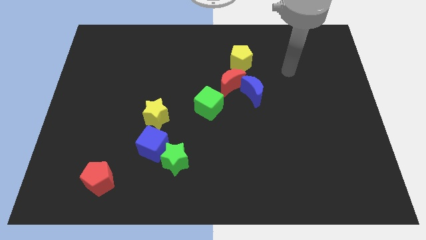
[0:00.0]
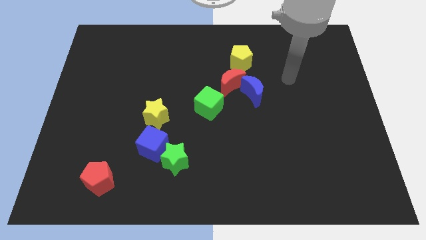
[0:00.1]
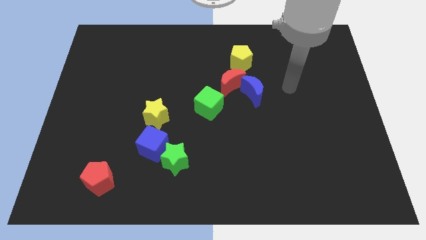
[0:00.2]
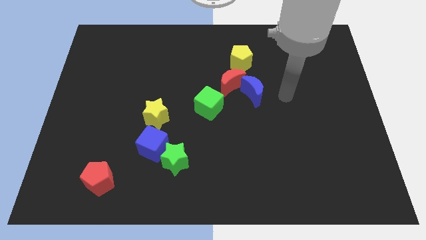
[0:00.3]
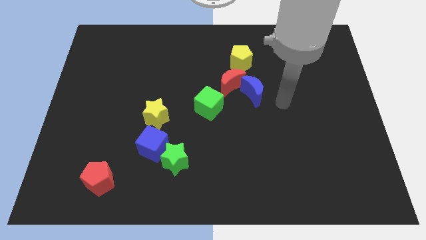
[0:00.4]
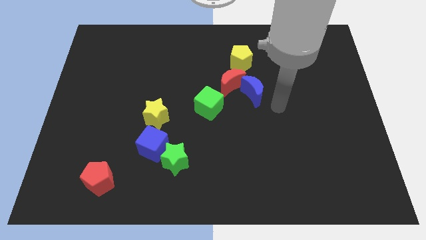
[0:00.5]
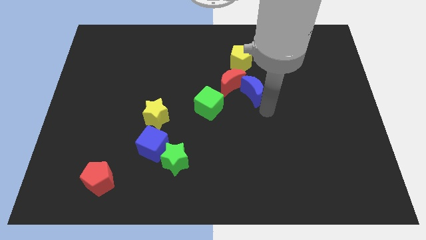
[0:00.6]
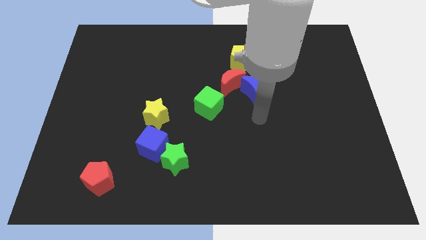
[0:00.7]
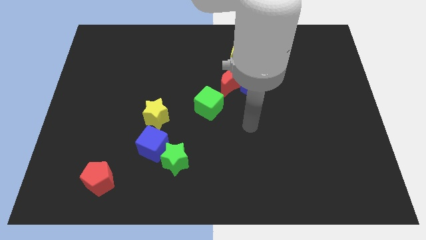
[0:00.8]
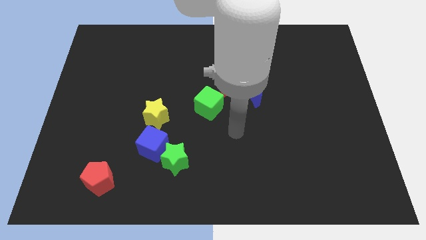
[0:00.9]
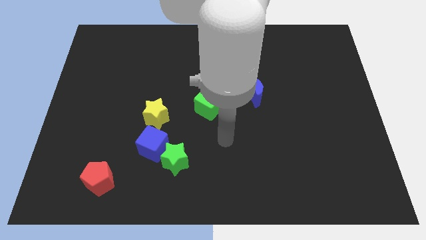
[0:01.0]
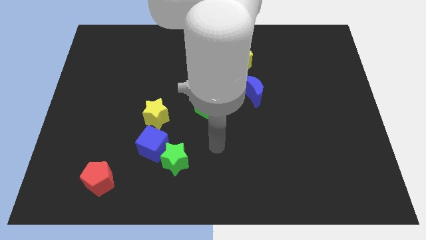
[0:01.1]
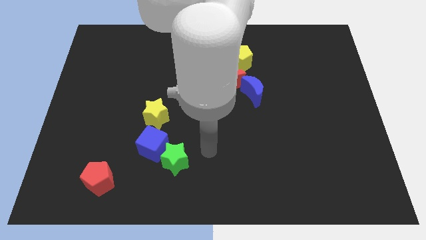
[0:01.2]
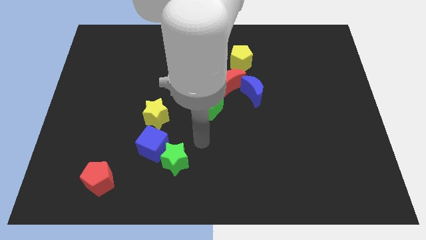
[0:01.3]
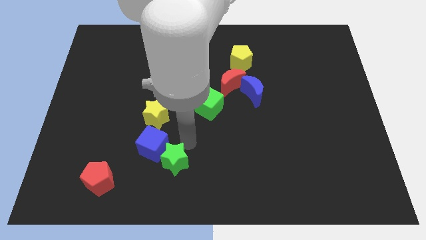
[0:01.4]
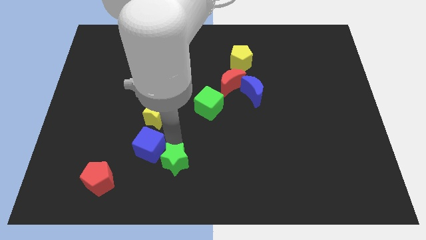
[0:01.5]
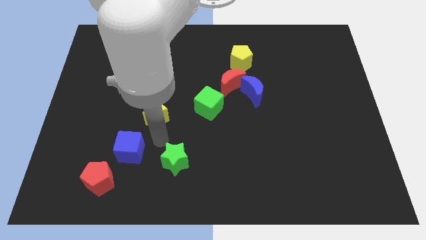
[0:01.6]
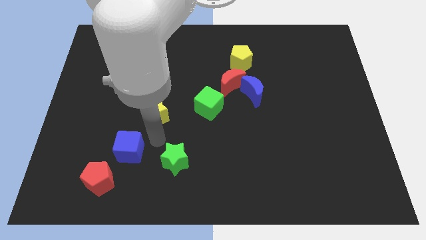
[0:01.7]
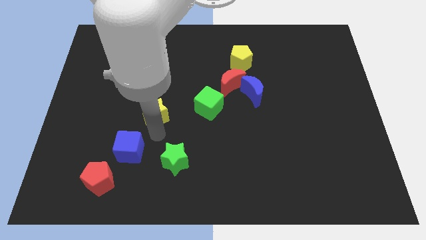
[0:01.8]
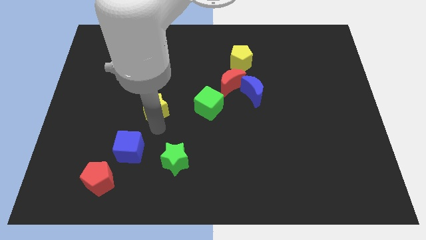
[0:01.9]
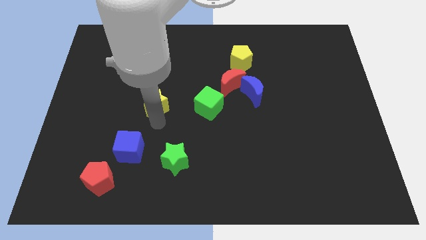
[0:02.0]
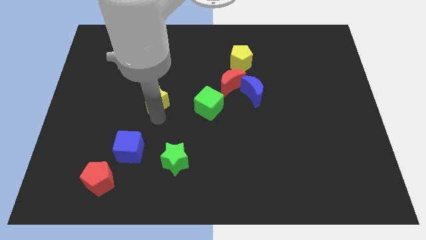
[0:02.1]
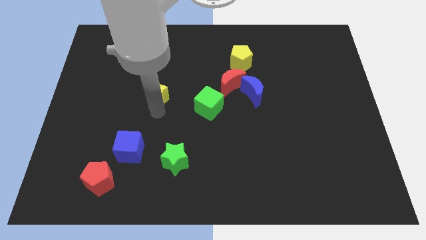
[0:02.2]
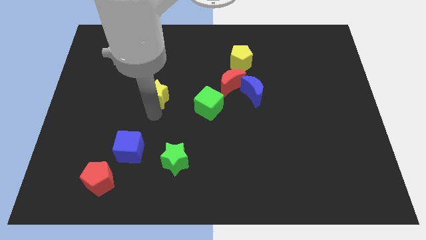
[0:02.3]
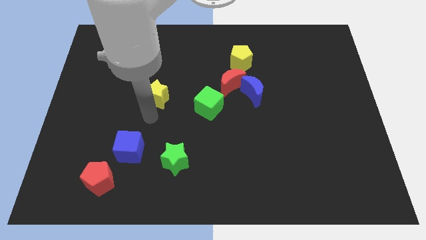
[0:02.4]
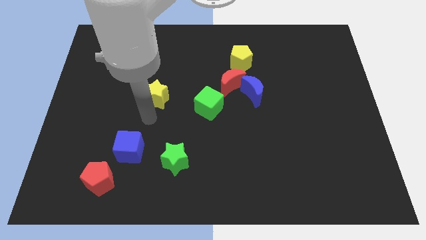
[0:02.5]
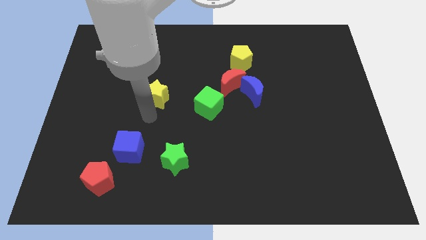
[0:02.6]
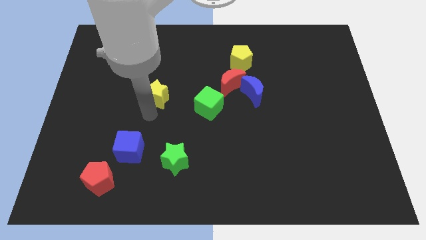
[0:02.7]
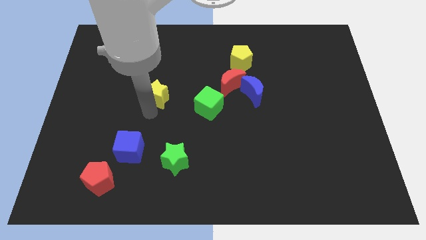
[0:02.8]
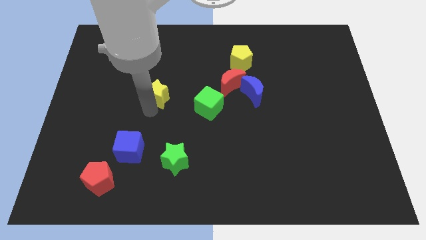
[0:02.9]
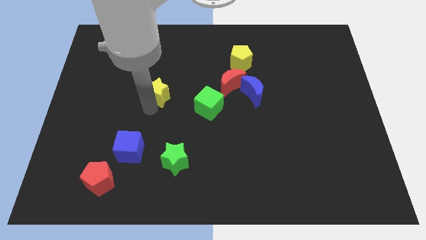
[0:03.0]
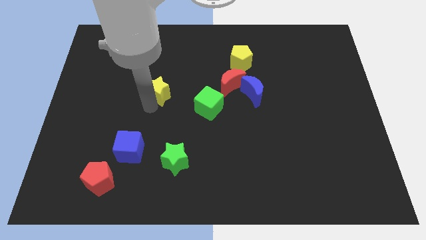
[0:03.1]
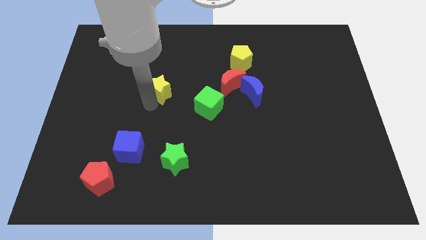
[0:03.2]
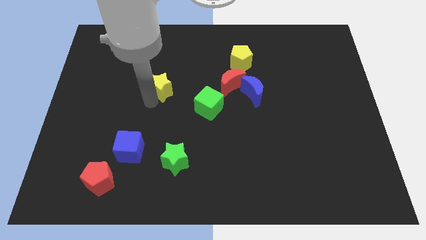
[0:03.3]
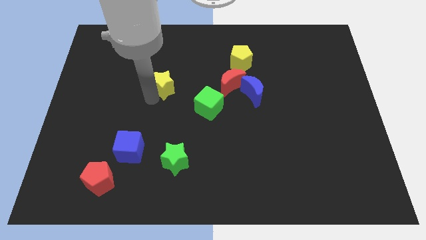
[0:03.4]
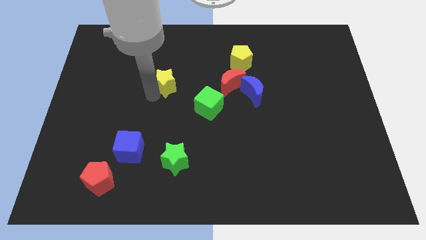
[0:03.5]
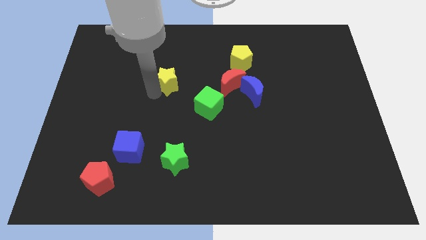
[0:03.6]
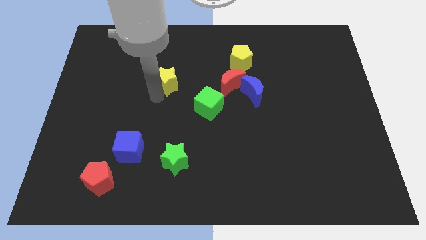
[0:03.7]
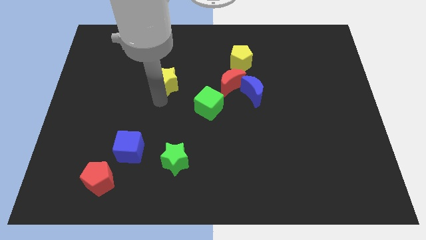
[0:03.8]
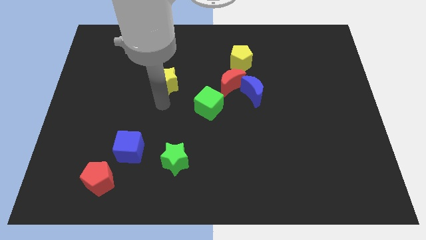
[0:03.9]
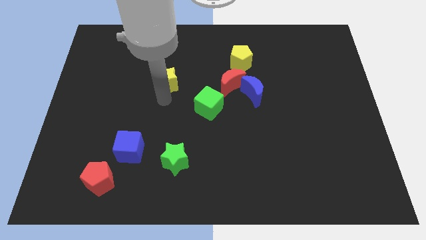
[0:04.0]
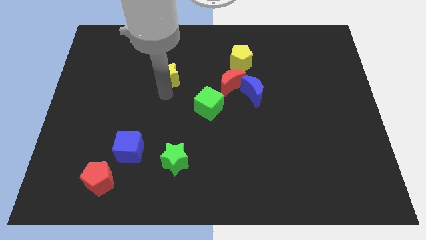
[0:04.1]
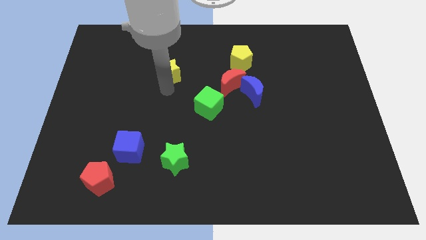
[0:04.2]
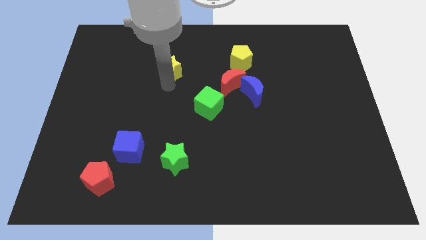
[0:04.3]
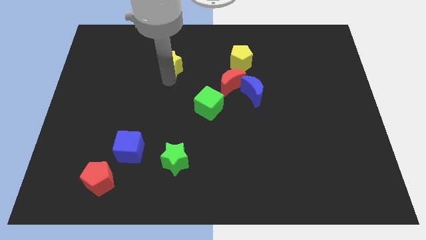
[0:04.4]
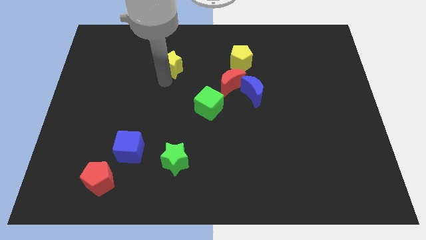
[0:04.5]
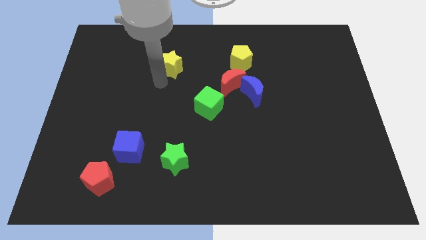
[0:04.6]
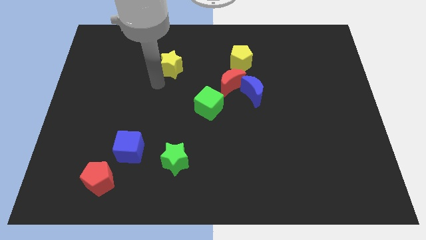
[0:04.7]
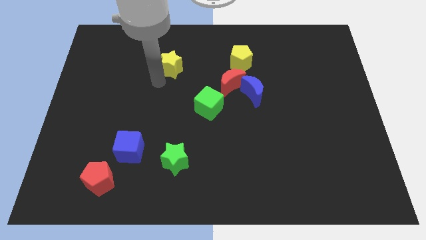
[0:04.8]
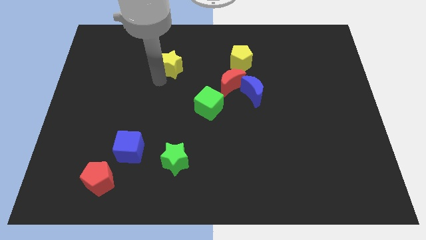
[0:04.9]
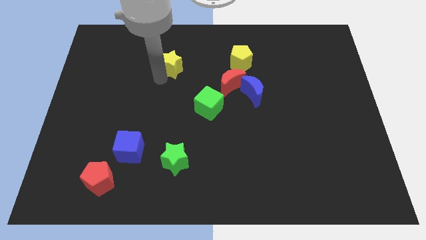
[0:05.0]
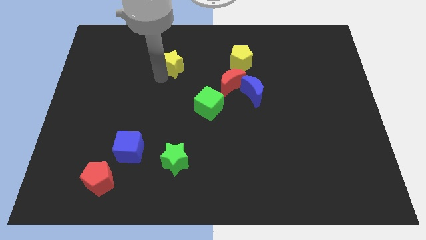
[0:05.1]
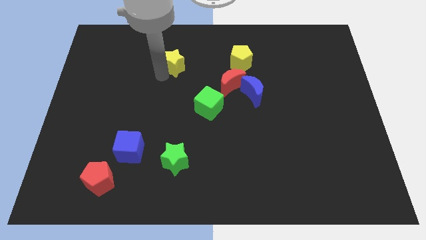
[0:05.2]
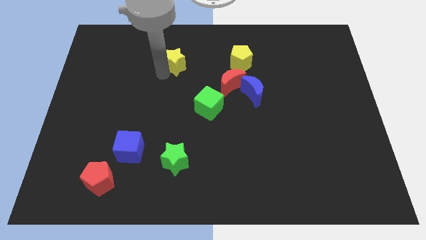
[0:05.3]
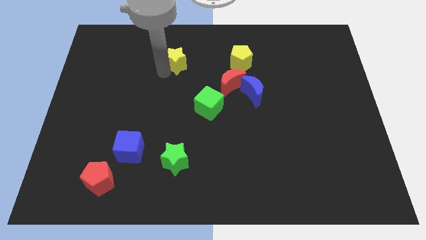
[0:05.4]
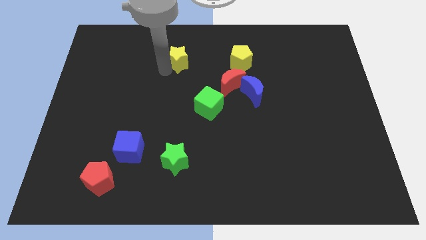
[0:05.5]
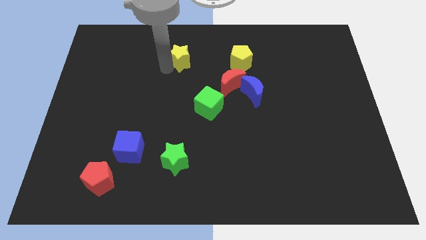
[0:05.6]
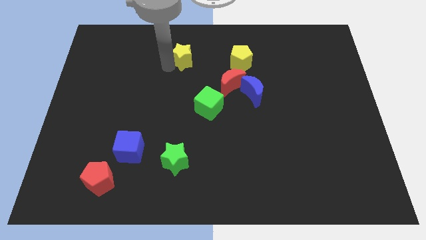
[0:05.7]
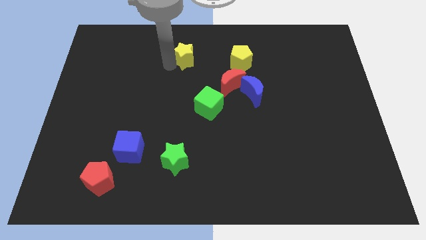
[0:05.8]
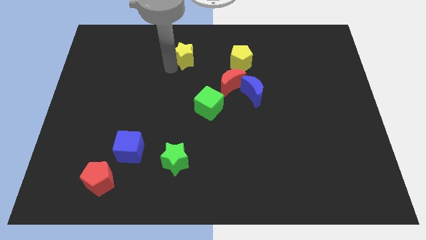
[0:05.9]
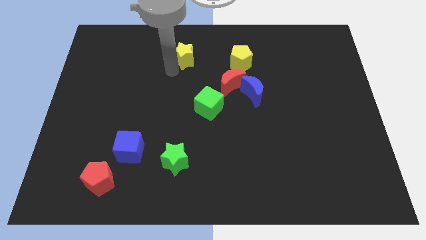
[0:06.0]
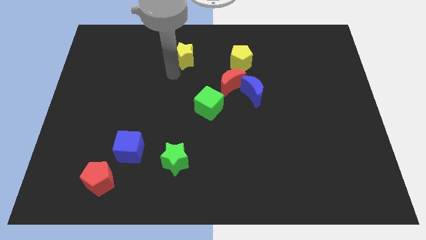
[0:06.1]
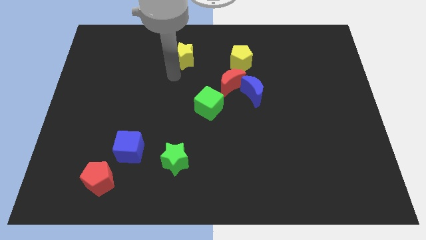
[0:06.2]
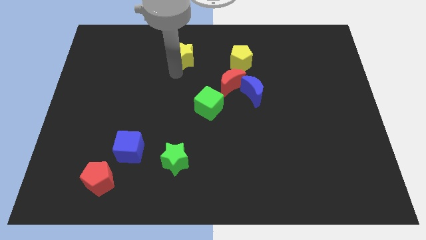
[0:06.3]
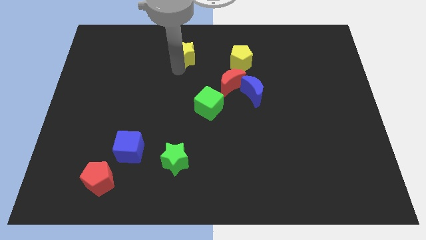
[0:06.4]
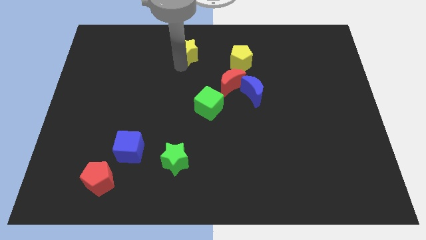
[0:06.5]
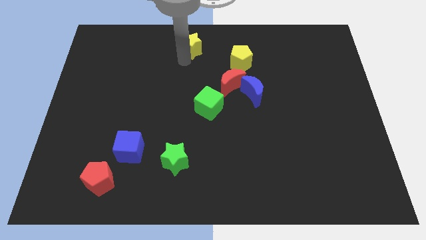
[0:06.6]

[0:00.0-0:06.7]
slide the yellow star to the top side
